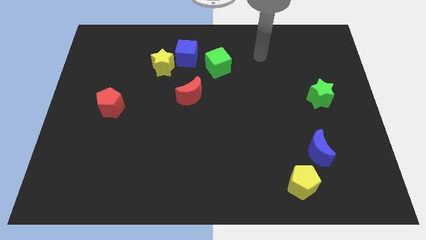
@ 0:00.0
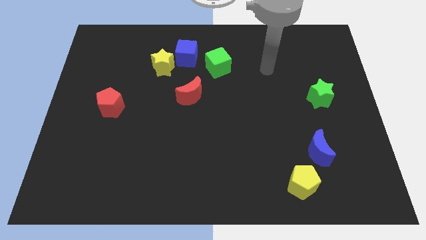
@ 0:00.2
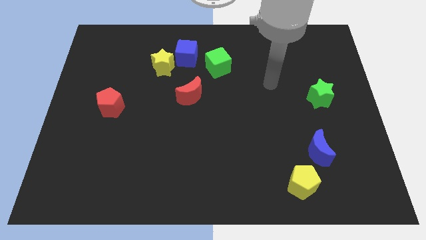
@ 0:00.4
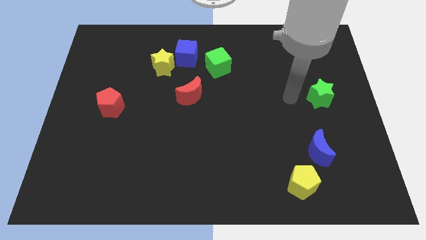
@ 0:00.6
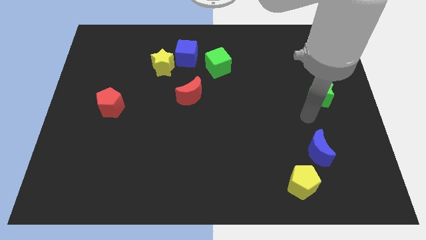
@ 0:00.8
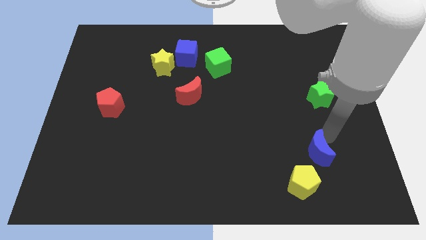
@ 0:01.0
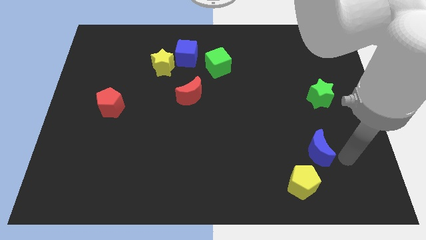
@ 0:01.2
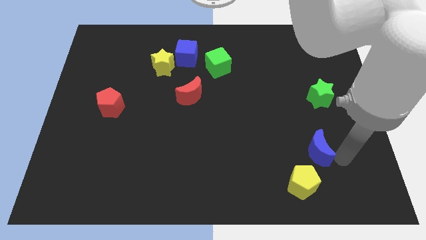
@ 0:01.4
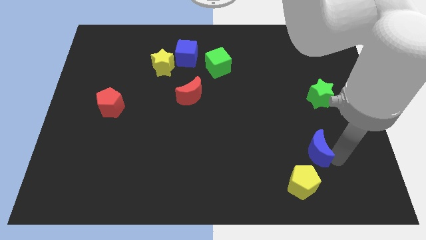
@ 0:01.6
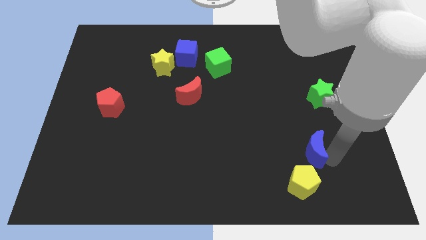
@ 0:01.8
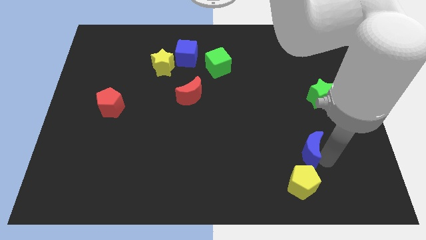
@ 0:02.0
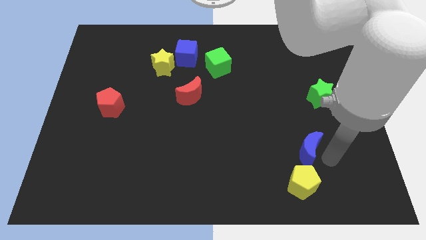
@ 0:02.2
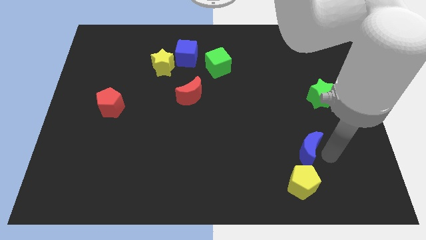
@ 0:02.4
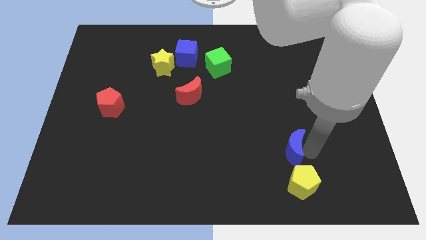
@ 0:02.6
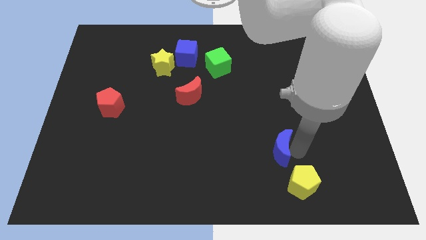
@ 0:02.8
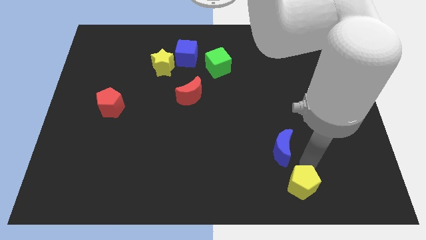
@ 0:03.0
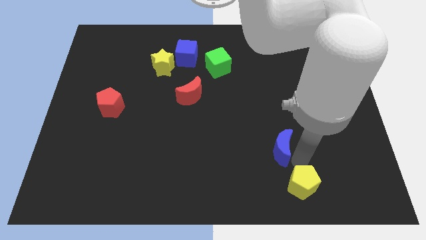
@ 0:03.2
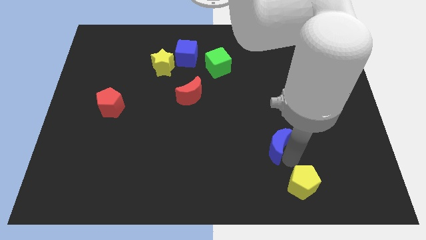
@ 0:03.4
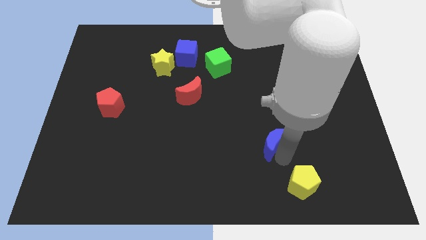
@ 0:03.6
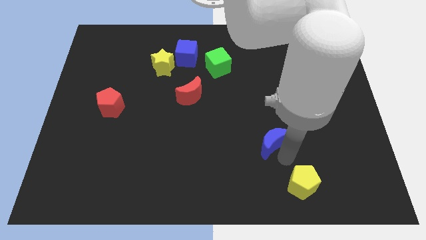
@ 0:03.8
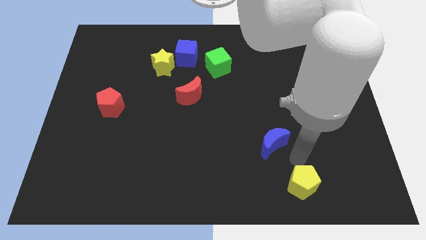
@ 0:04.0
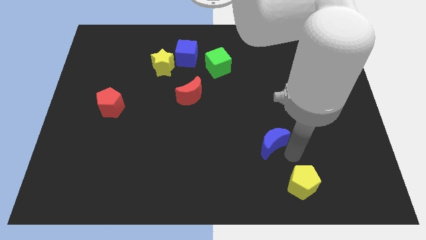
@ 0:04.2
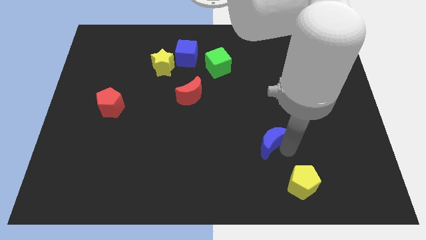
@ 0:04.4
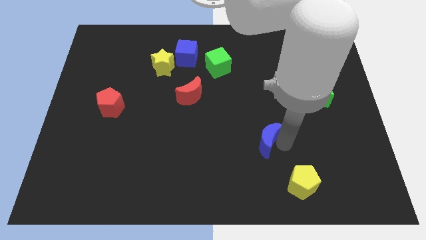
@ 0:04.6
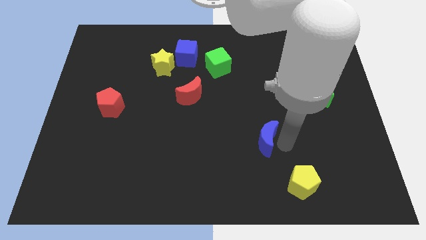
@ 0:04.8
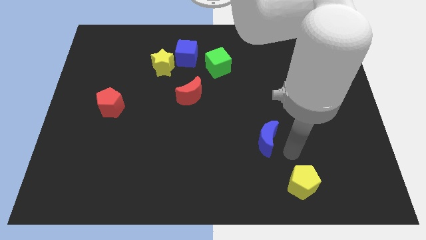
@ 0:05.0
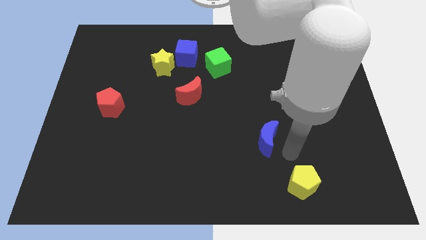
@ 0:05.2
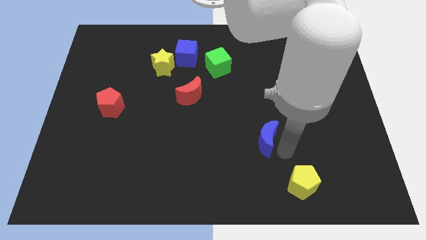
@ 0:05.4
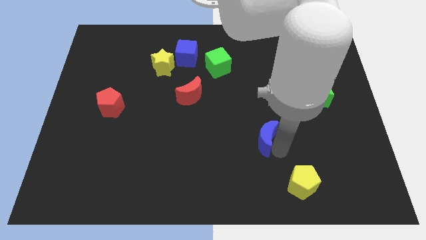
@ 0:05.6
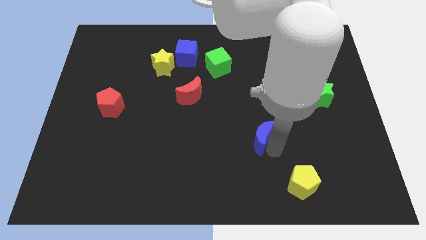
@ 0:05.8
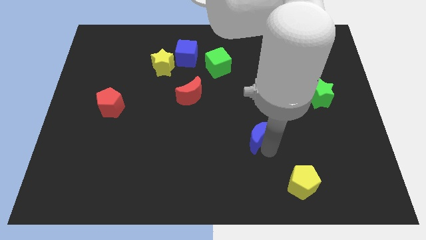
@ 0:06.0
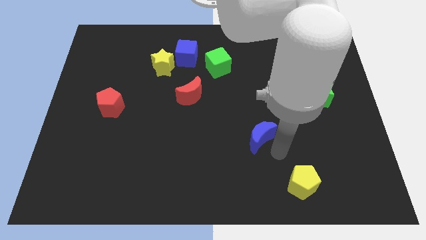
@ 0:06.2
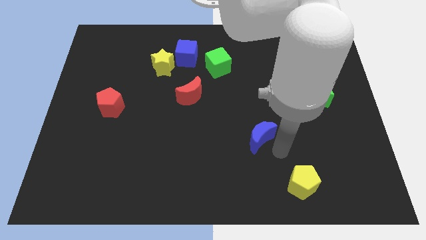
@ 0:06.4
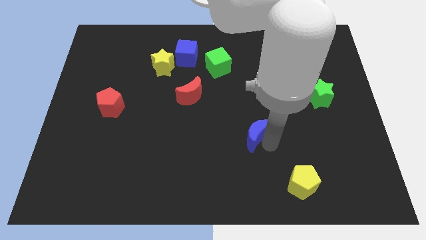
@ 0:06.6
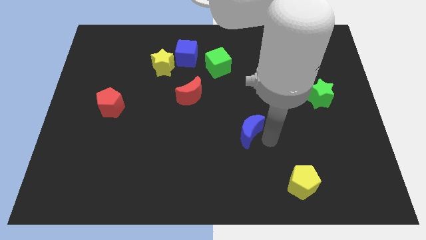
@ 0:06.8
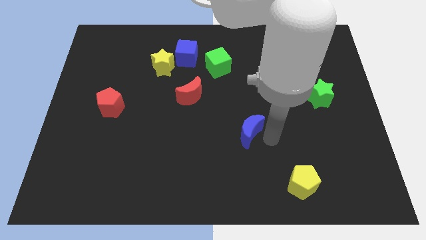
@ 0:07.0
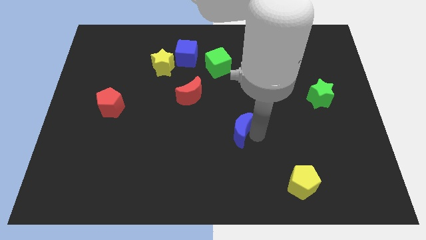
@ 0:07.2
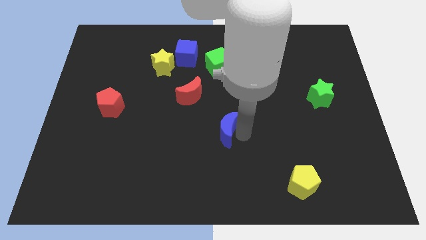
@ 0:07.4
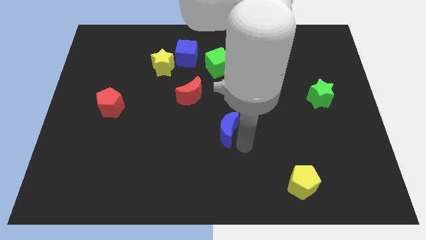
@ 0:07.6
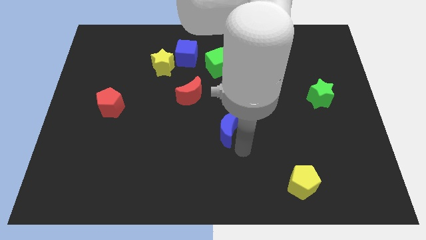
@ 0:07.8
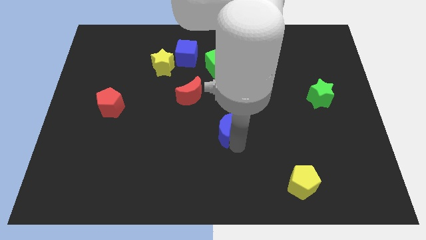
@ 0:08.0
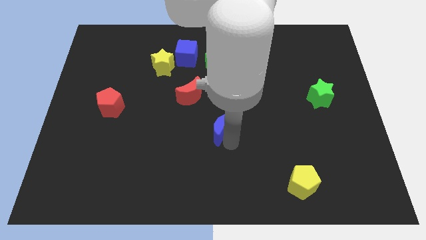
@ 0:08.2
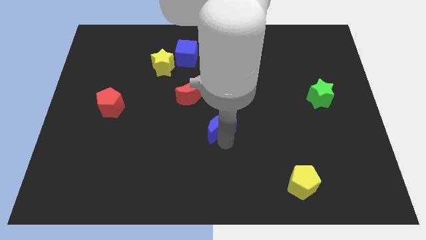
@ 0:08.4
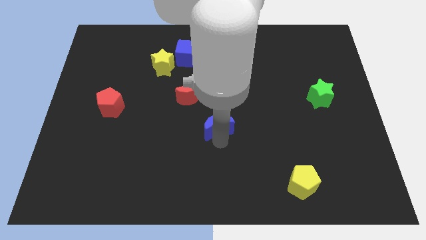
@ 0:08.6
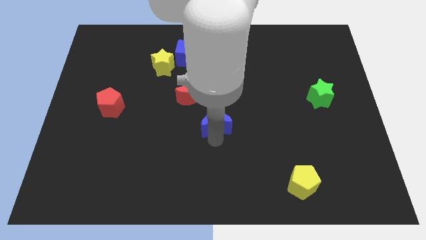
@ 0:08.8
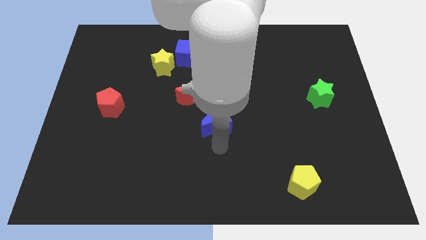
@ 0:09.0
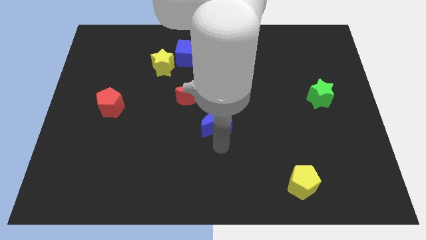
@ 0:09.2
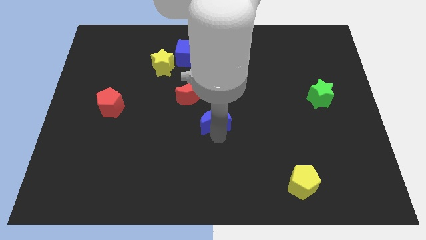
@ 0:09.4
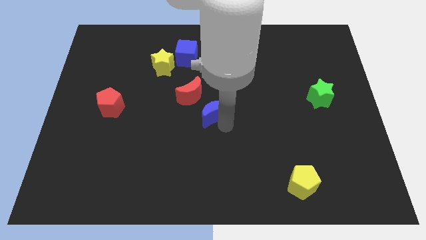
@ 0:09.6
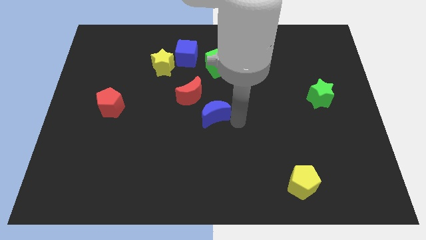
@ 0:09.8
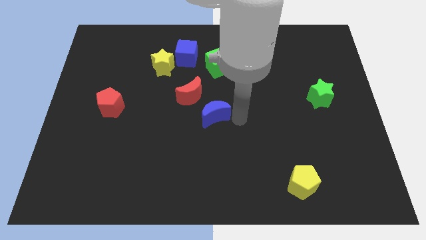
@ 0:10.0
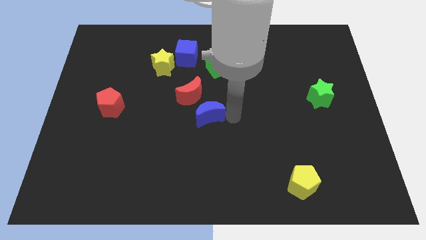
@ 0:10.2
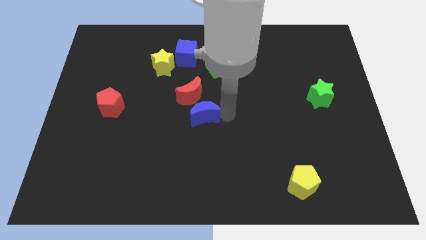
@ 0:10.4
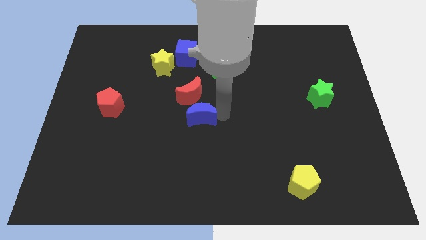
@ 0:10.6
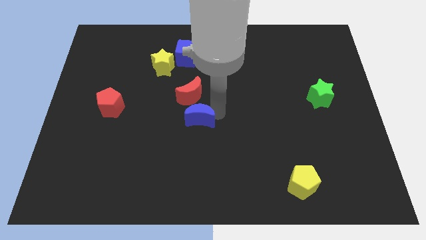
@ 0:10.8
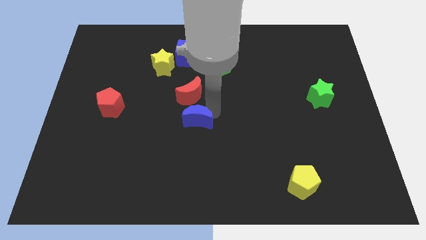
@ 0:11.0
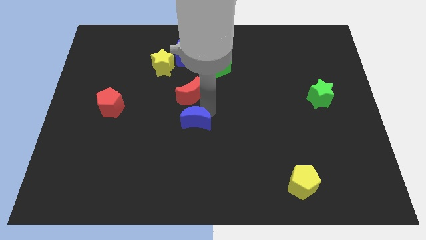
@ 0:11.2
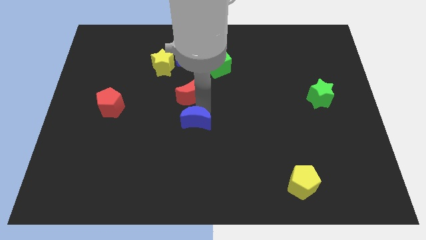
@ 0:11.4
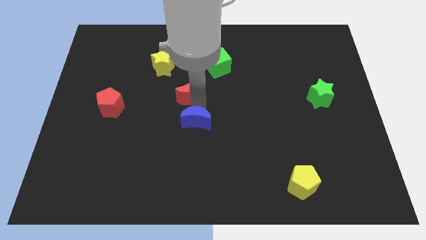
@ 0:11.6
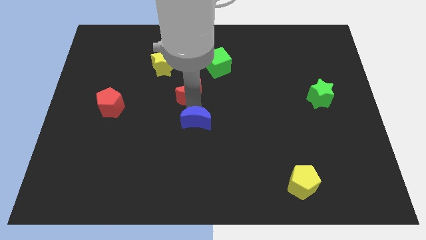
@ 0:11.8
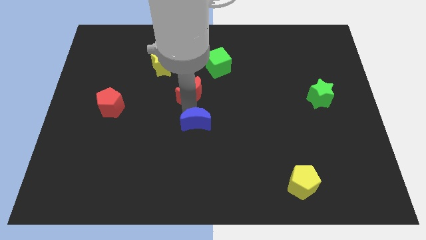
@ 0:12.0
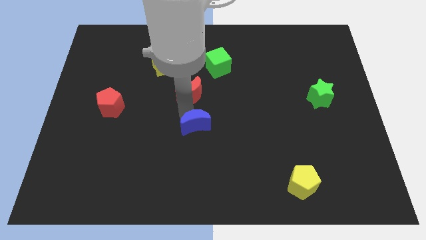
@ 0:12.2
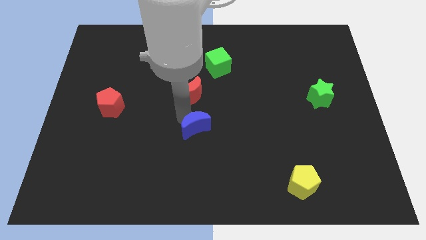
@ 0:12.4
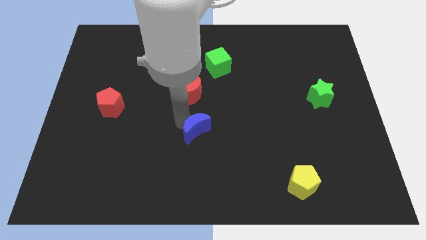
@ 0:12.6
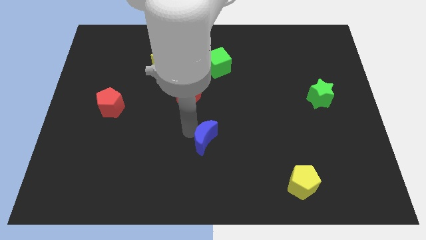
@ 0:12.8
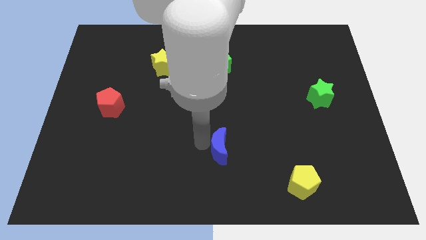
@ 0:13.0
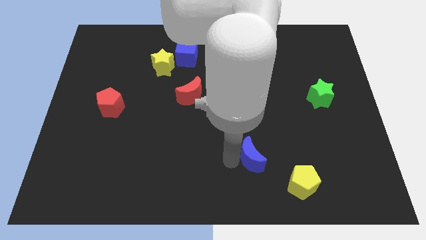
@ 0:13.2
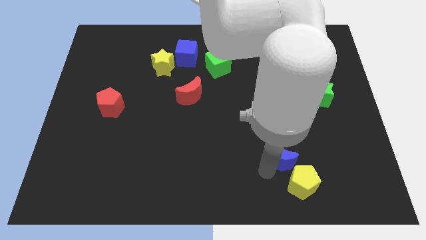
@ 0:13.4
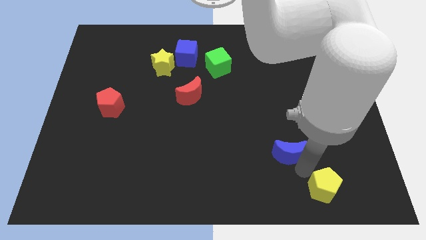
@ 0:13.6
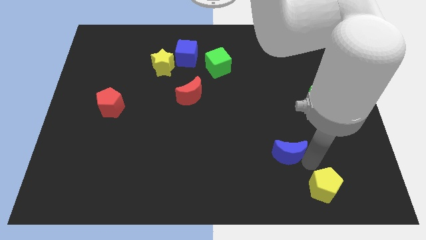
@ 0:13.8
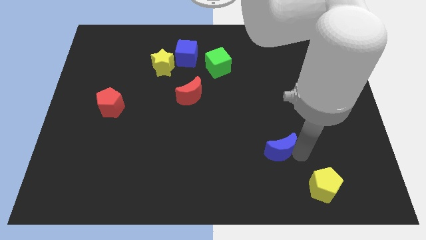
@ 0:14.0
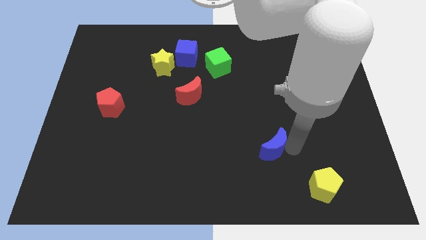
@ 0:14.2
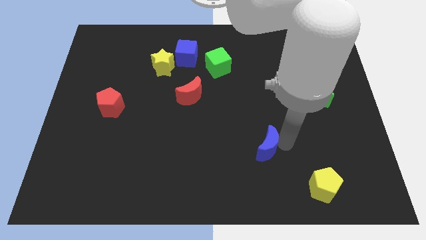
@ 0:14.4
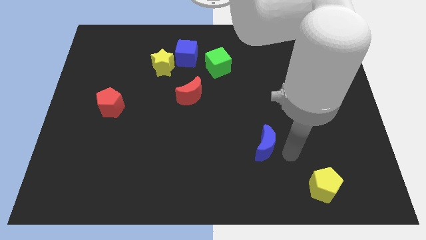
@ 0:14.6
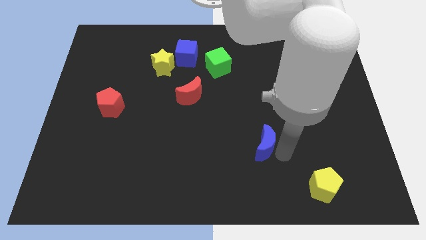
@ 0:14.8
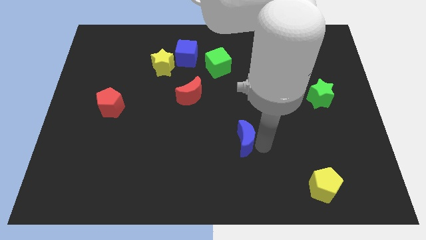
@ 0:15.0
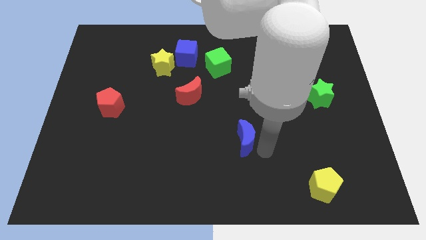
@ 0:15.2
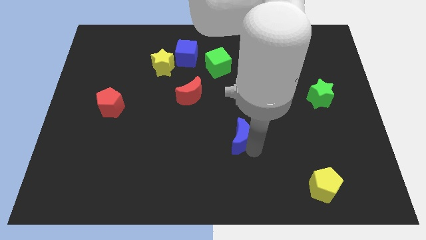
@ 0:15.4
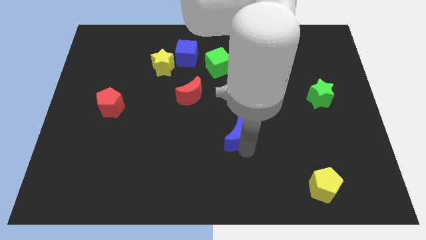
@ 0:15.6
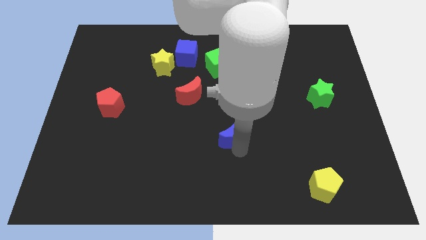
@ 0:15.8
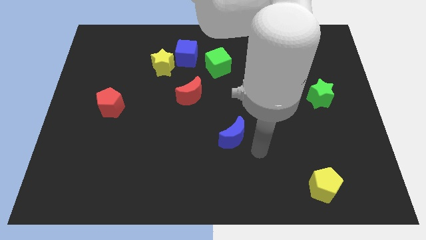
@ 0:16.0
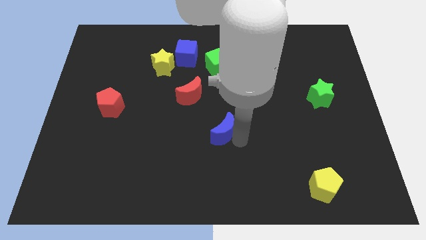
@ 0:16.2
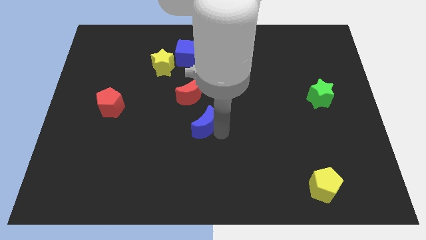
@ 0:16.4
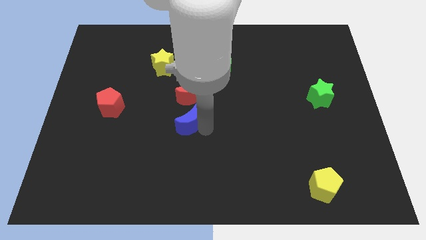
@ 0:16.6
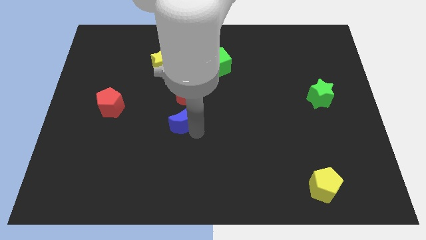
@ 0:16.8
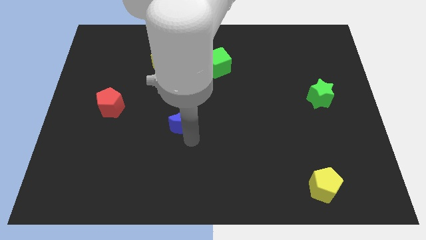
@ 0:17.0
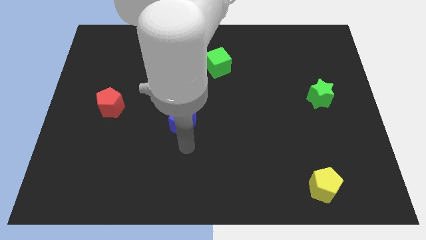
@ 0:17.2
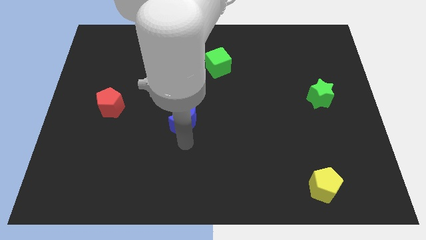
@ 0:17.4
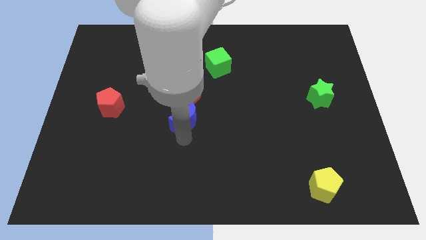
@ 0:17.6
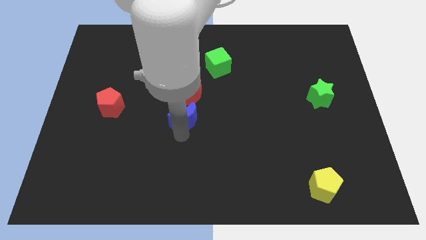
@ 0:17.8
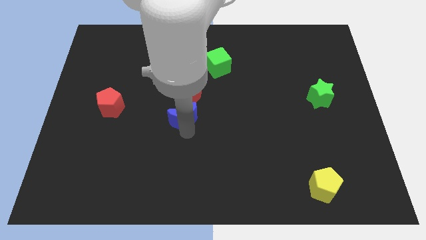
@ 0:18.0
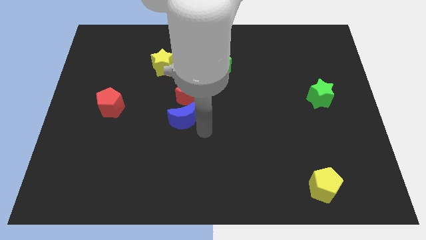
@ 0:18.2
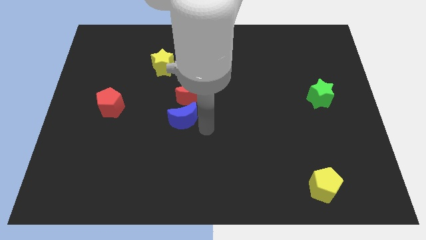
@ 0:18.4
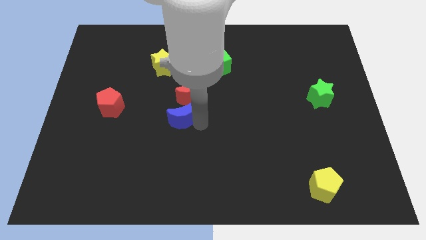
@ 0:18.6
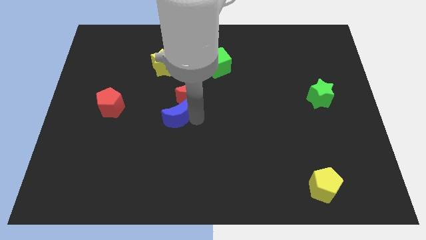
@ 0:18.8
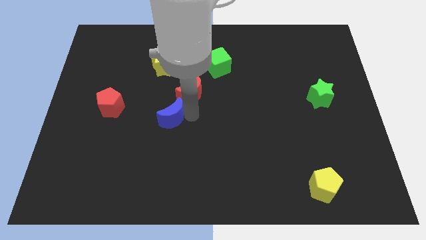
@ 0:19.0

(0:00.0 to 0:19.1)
push the blue moon to the right of the red pentagon
